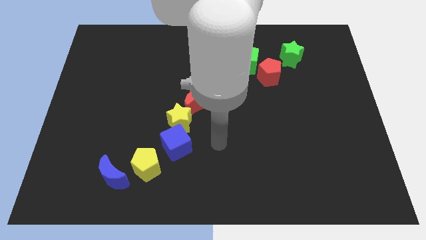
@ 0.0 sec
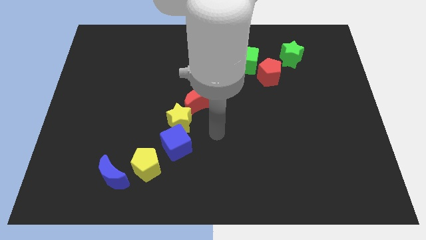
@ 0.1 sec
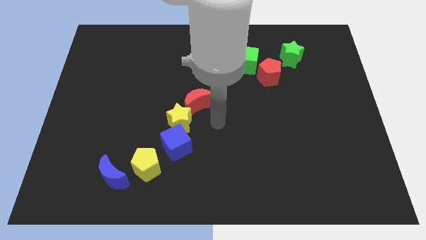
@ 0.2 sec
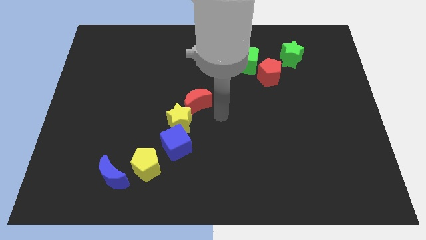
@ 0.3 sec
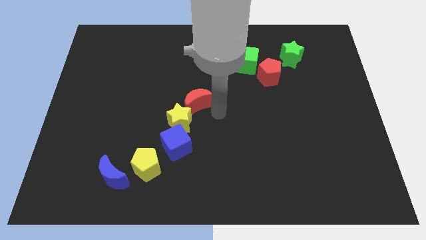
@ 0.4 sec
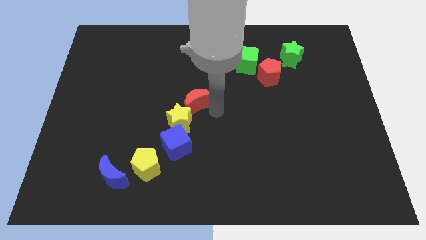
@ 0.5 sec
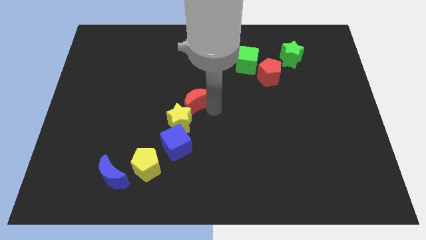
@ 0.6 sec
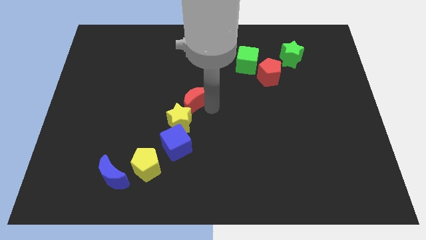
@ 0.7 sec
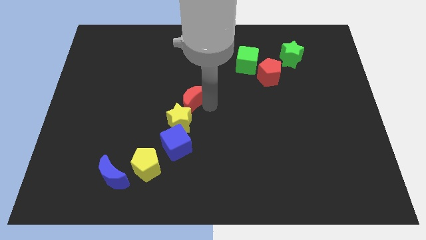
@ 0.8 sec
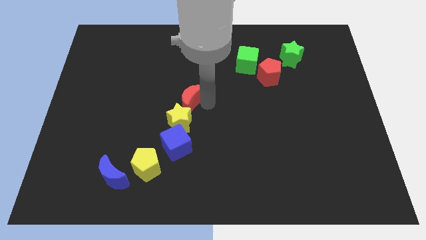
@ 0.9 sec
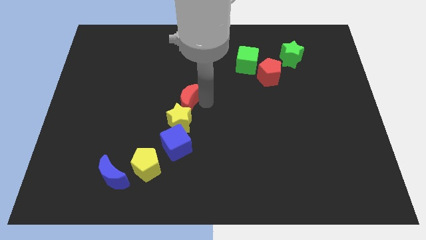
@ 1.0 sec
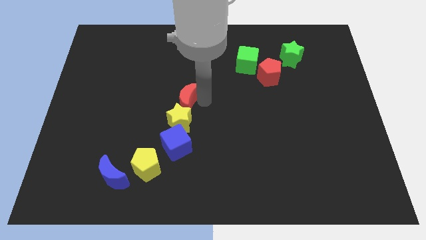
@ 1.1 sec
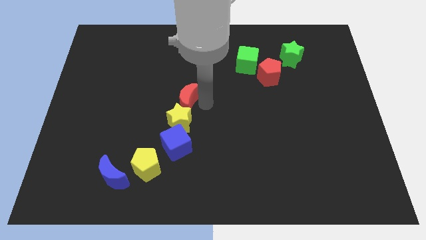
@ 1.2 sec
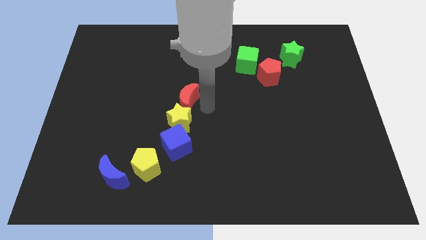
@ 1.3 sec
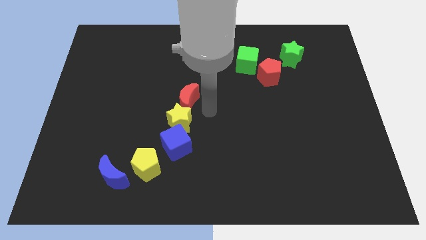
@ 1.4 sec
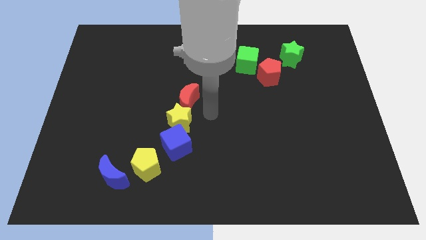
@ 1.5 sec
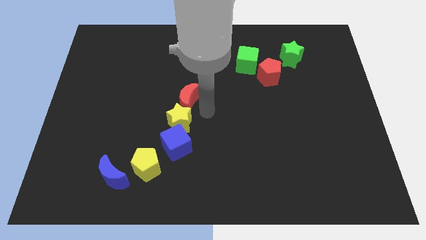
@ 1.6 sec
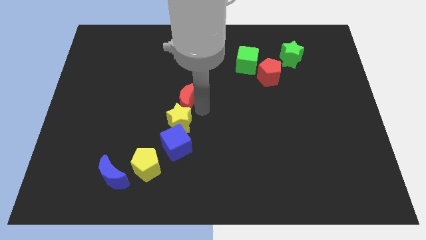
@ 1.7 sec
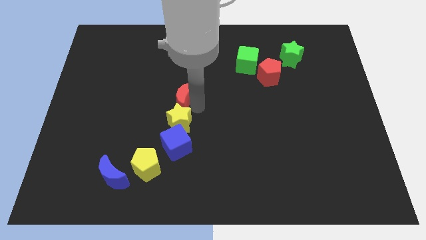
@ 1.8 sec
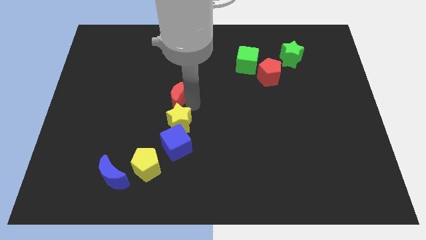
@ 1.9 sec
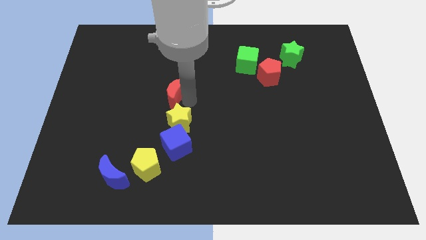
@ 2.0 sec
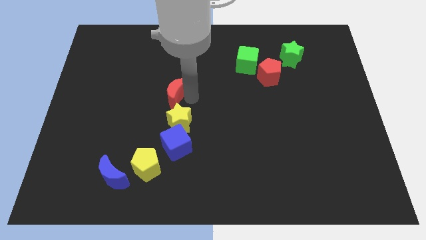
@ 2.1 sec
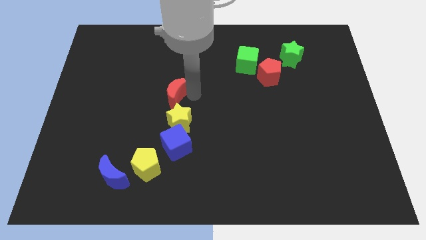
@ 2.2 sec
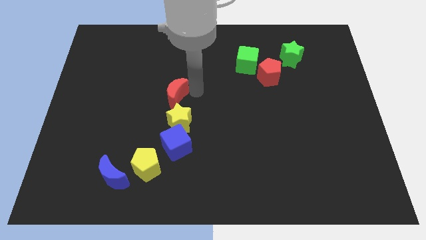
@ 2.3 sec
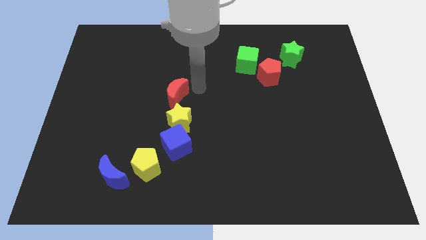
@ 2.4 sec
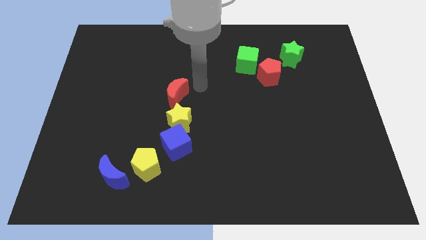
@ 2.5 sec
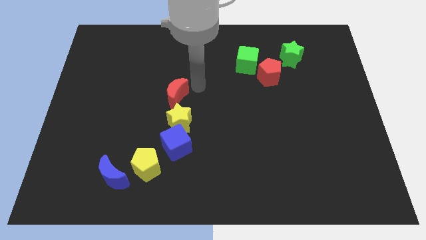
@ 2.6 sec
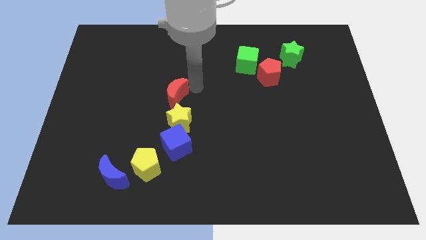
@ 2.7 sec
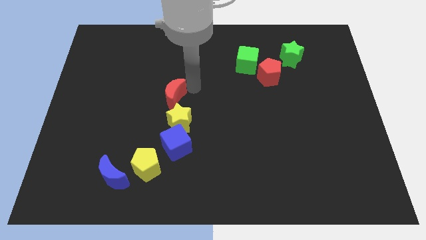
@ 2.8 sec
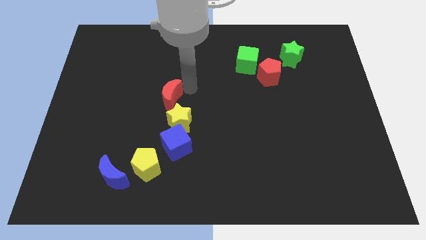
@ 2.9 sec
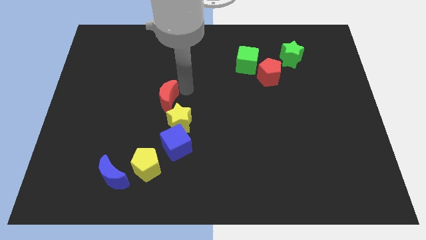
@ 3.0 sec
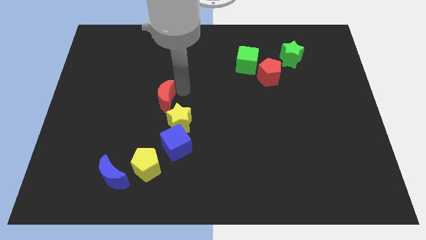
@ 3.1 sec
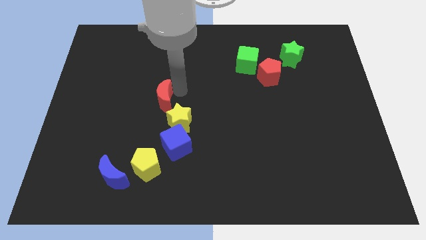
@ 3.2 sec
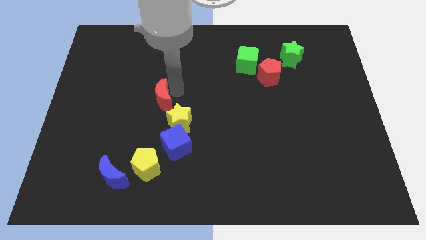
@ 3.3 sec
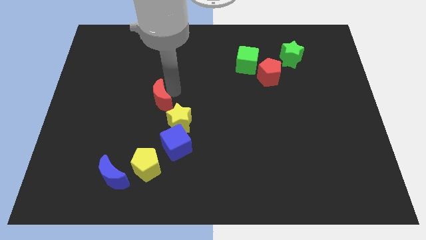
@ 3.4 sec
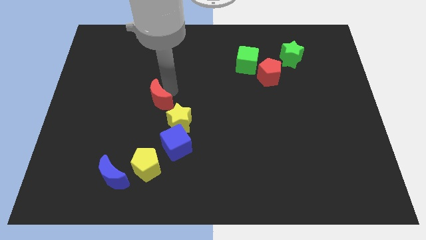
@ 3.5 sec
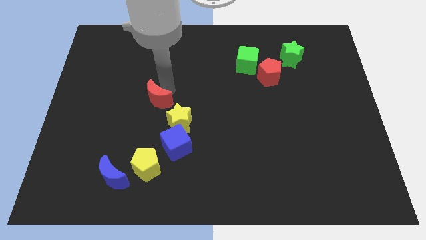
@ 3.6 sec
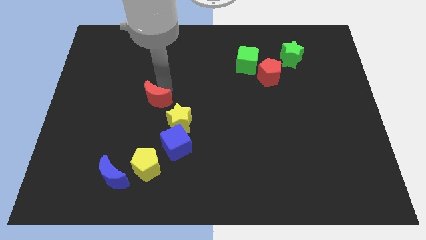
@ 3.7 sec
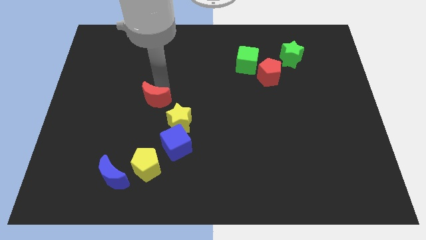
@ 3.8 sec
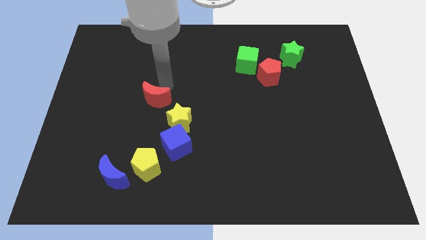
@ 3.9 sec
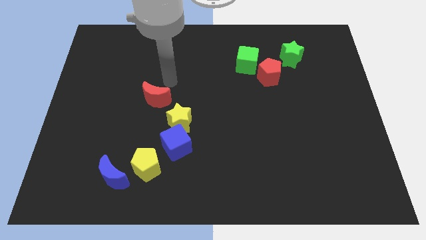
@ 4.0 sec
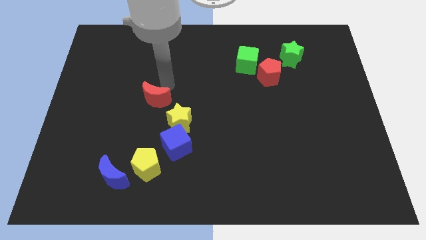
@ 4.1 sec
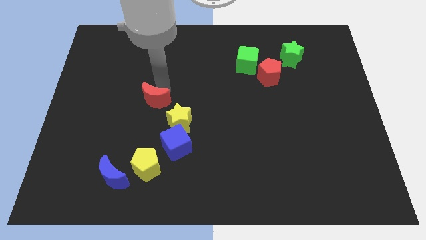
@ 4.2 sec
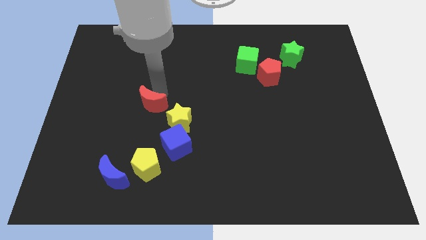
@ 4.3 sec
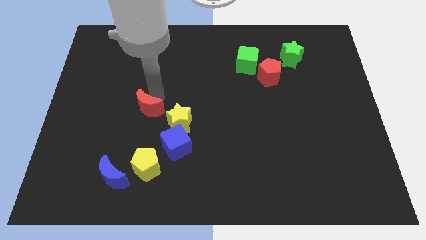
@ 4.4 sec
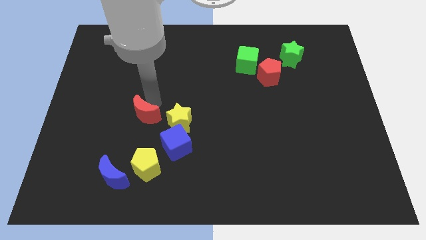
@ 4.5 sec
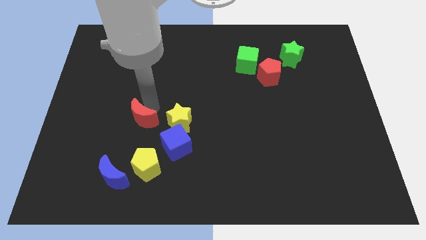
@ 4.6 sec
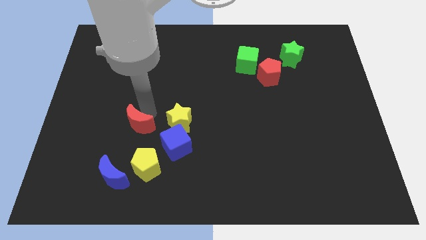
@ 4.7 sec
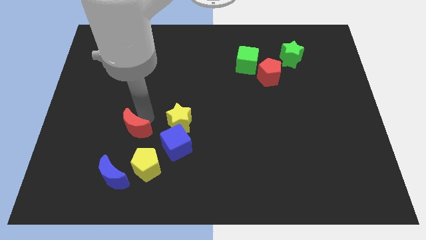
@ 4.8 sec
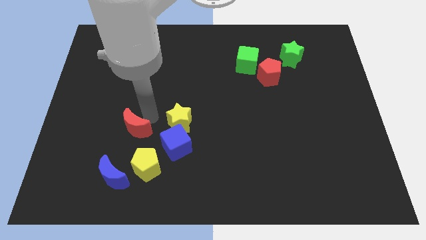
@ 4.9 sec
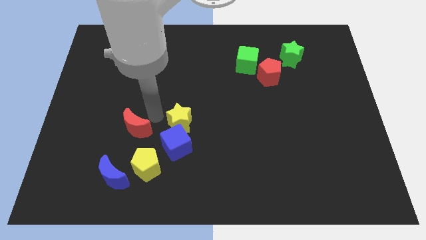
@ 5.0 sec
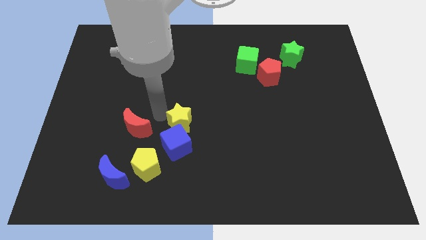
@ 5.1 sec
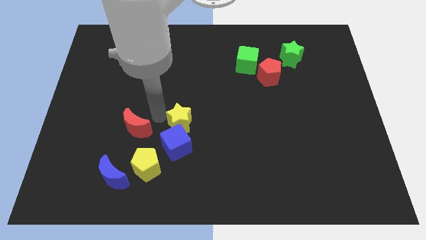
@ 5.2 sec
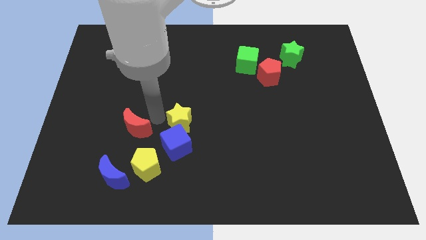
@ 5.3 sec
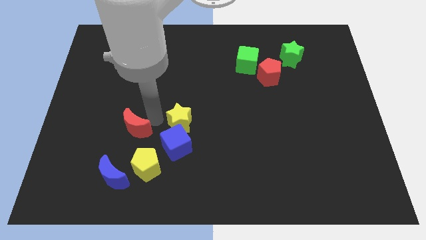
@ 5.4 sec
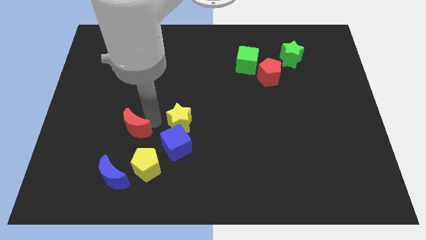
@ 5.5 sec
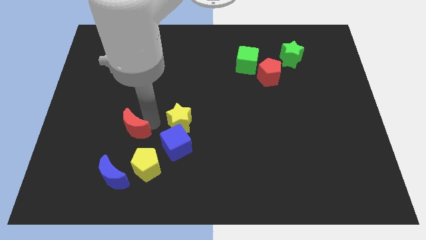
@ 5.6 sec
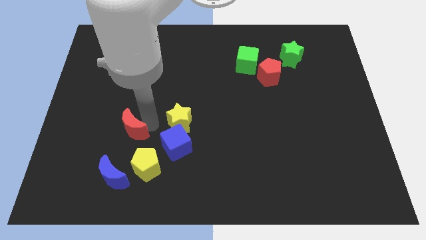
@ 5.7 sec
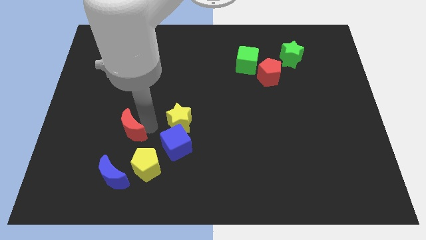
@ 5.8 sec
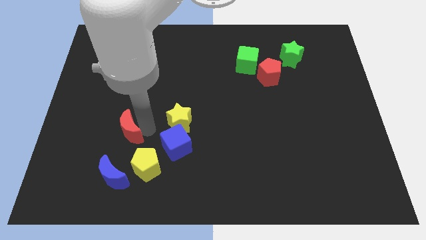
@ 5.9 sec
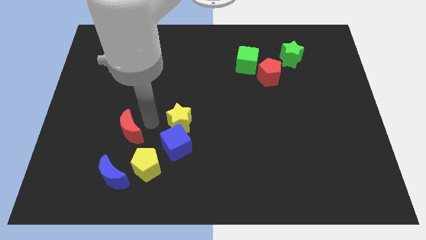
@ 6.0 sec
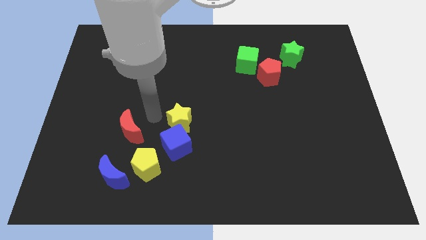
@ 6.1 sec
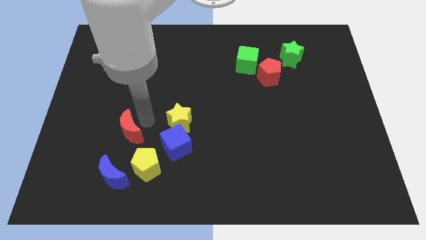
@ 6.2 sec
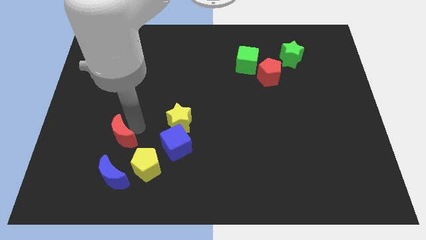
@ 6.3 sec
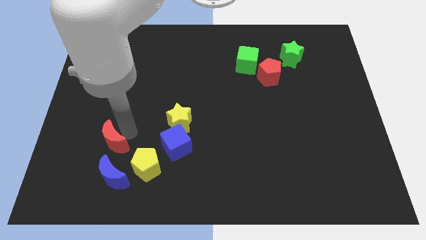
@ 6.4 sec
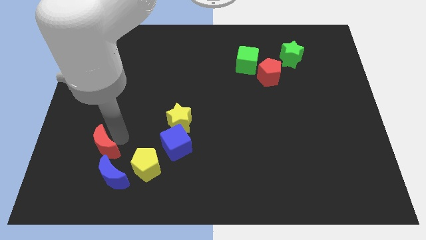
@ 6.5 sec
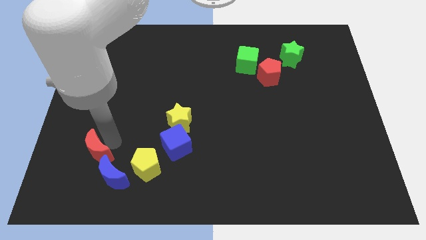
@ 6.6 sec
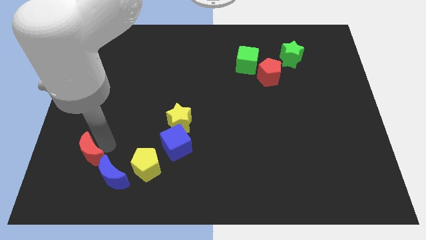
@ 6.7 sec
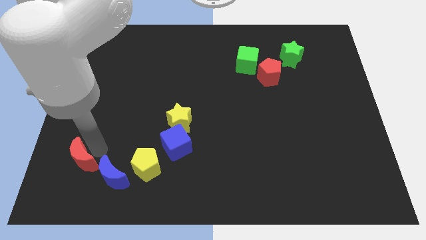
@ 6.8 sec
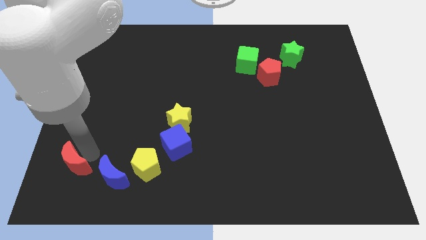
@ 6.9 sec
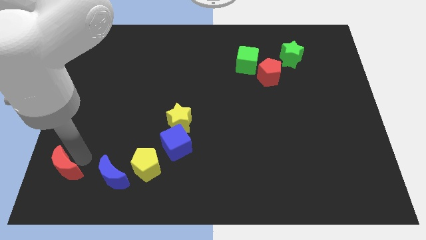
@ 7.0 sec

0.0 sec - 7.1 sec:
put the red moon to the bottom left

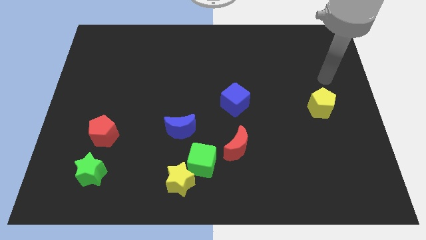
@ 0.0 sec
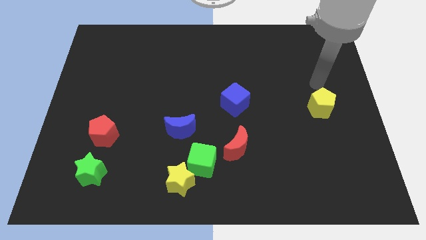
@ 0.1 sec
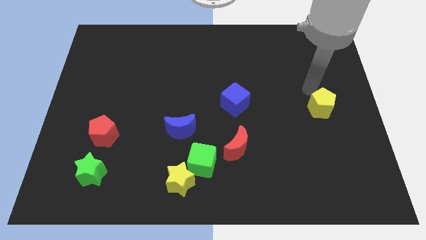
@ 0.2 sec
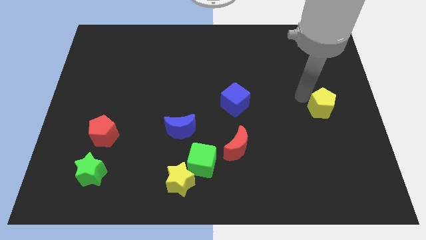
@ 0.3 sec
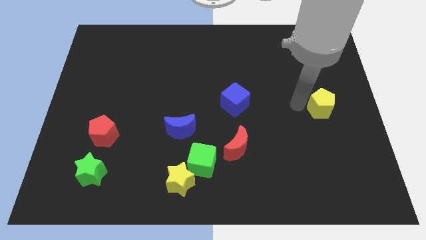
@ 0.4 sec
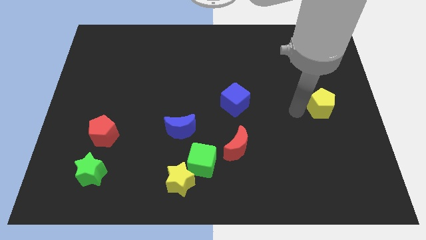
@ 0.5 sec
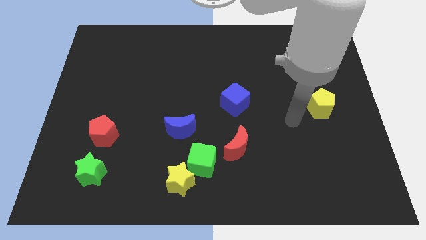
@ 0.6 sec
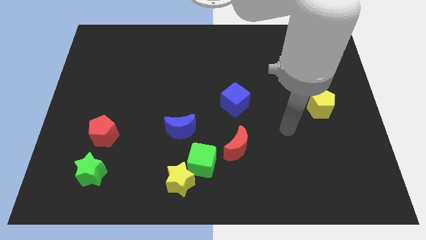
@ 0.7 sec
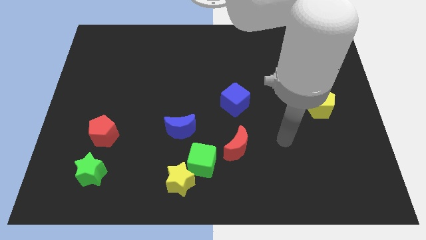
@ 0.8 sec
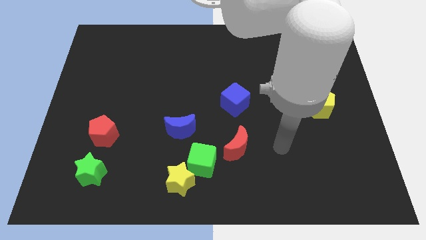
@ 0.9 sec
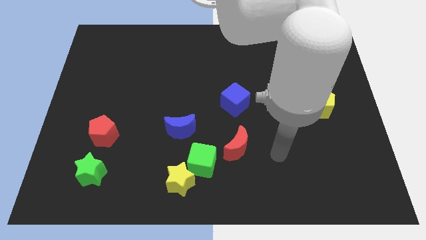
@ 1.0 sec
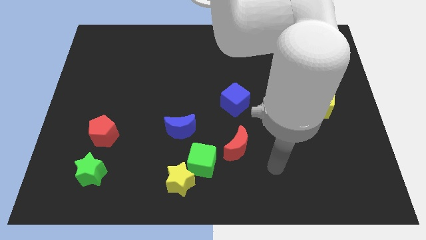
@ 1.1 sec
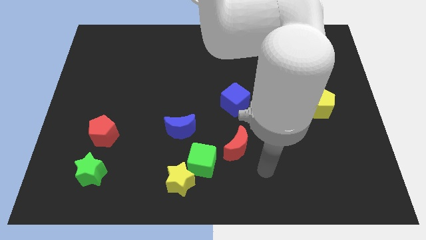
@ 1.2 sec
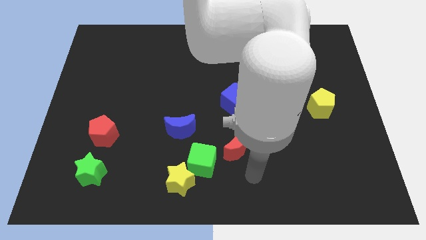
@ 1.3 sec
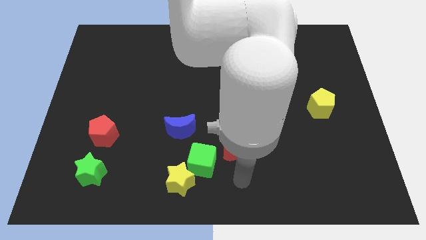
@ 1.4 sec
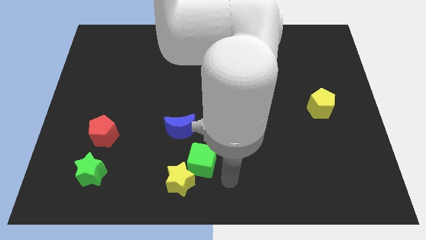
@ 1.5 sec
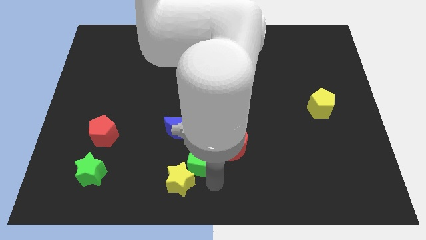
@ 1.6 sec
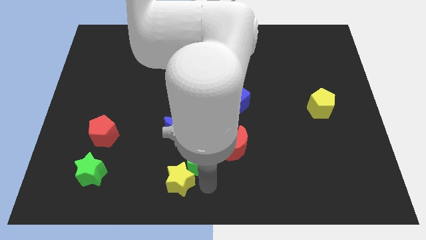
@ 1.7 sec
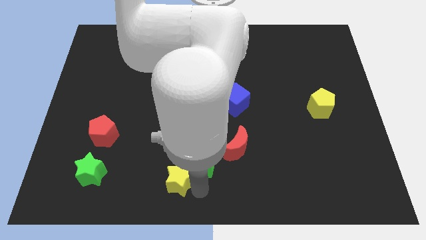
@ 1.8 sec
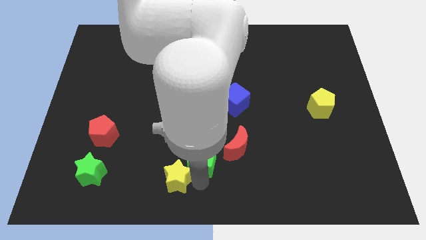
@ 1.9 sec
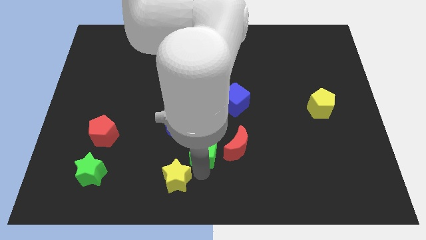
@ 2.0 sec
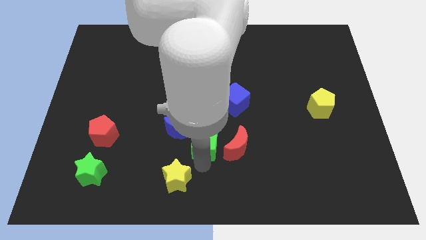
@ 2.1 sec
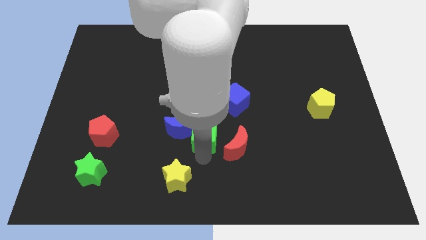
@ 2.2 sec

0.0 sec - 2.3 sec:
slide the green cube to the middle
